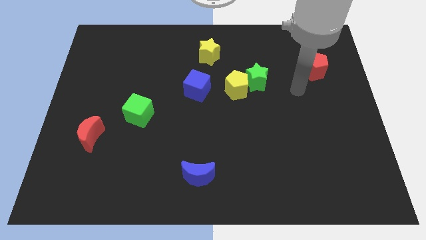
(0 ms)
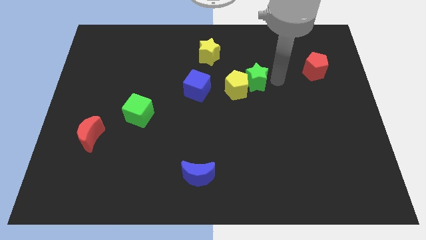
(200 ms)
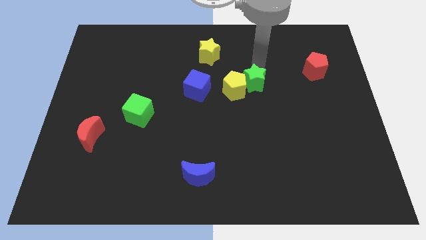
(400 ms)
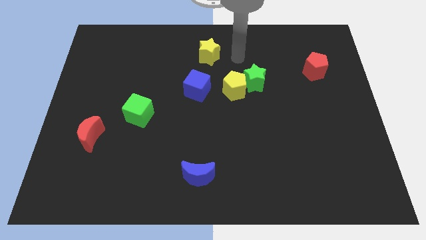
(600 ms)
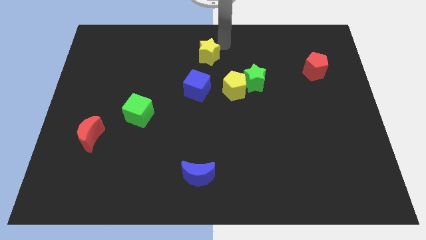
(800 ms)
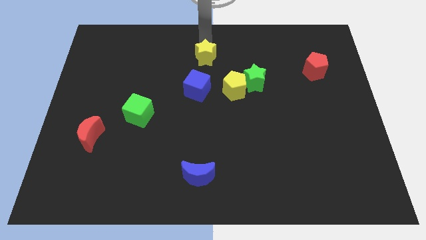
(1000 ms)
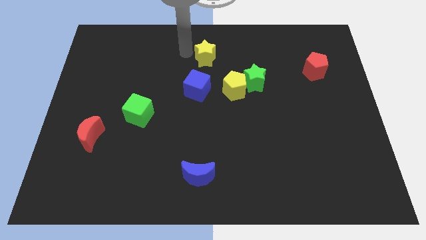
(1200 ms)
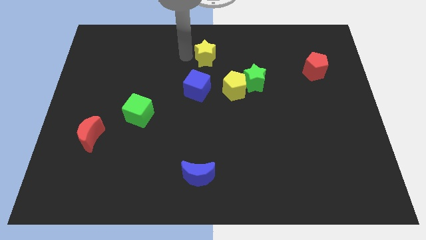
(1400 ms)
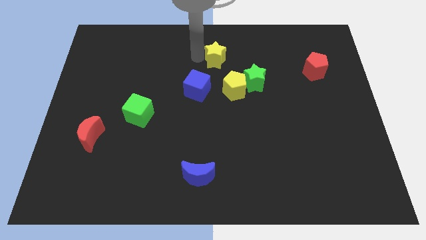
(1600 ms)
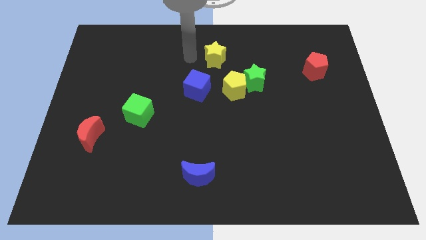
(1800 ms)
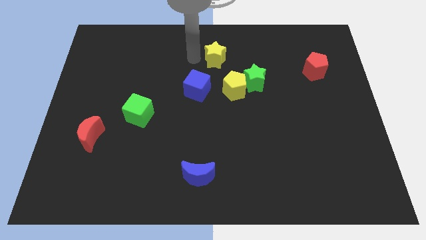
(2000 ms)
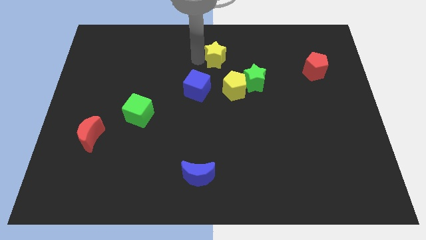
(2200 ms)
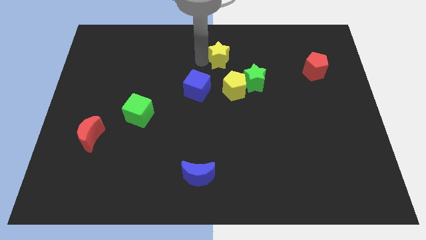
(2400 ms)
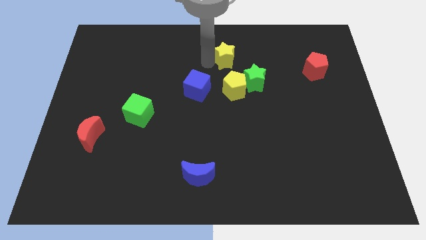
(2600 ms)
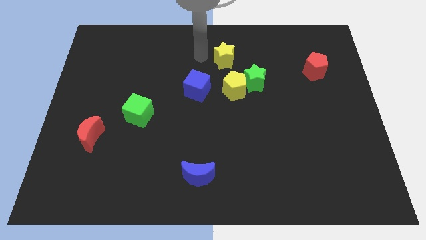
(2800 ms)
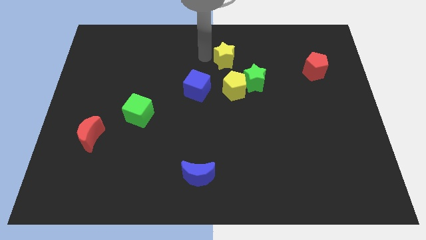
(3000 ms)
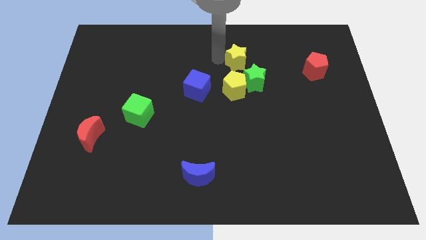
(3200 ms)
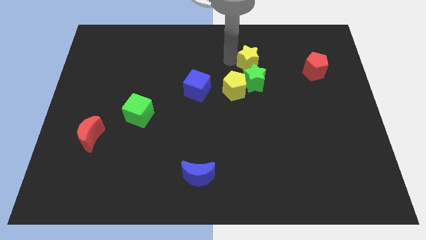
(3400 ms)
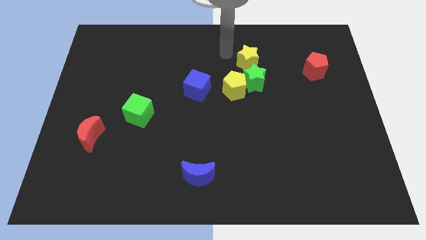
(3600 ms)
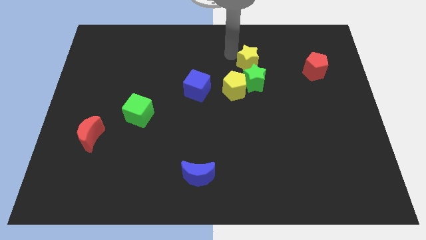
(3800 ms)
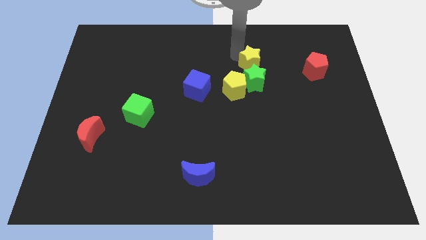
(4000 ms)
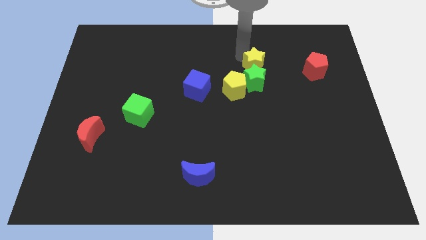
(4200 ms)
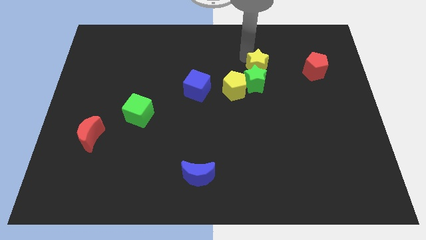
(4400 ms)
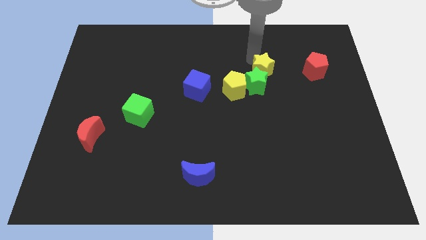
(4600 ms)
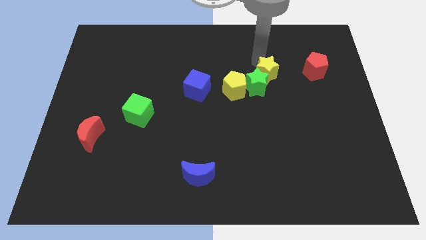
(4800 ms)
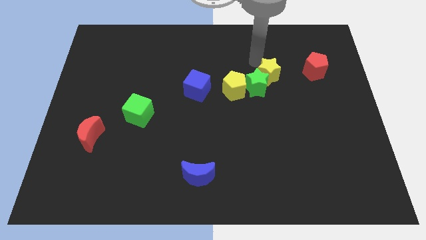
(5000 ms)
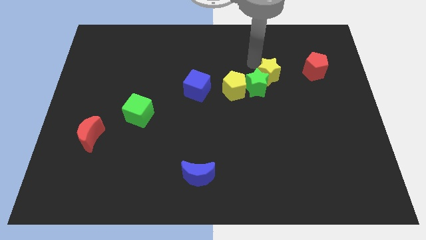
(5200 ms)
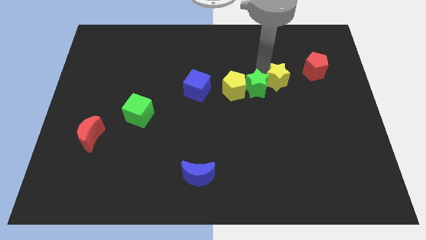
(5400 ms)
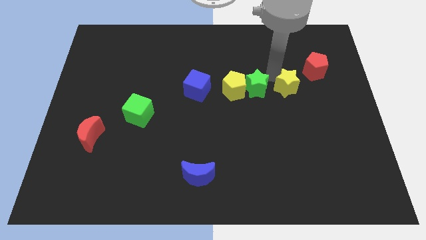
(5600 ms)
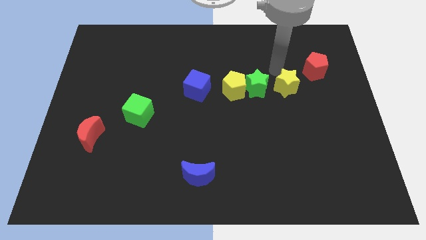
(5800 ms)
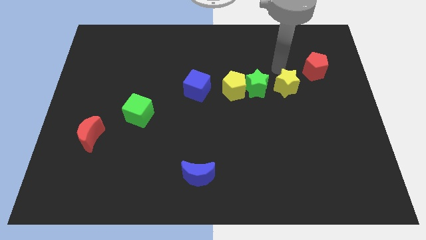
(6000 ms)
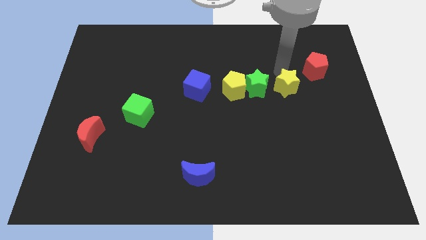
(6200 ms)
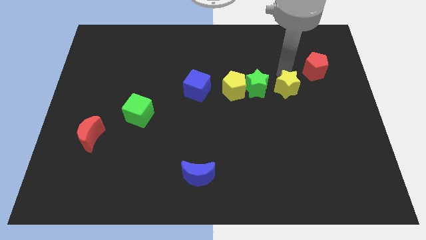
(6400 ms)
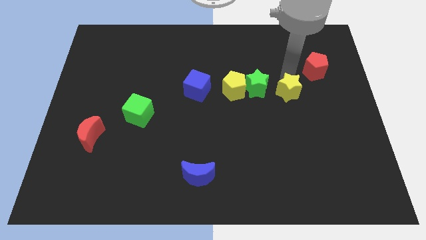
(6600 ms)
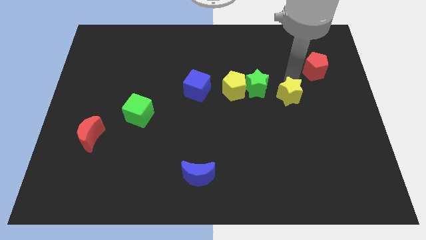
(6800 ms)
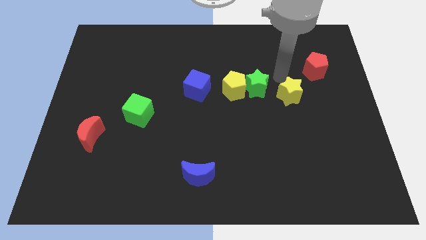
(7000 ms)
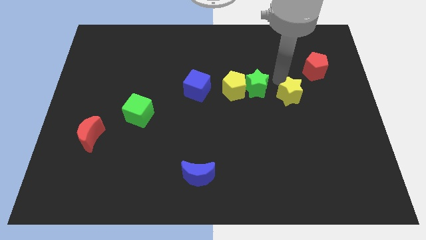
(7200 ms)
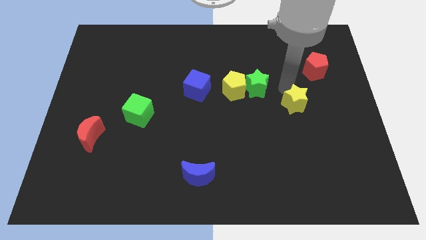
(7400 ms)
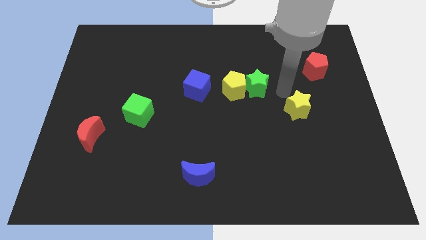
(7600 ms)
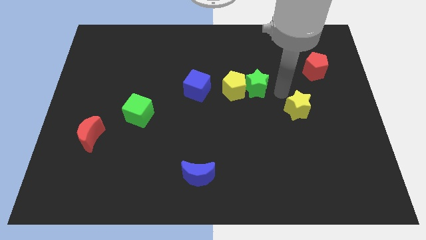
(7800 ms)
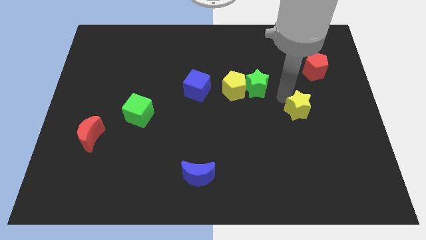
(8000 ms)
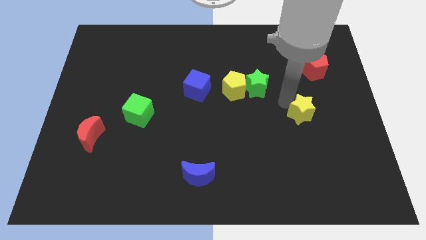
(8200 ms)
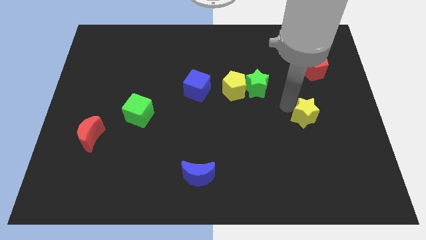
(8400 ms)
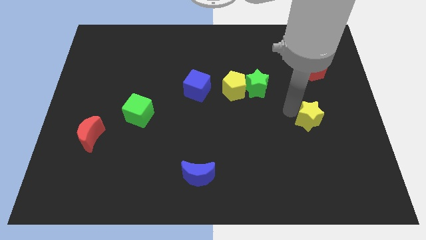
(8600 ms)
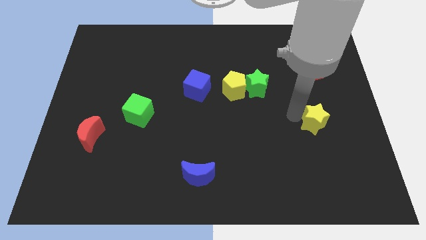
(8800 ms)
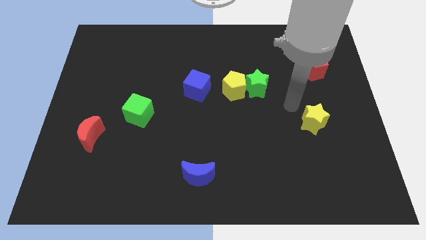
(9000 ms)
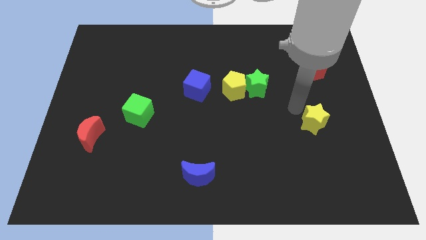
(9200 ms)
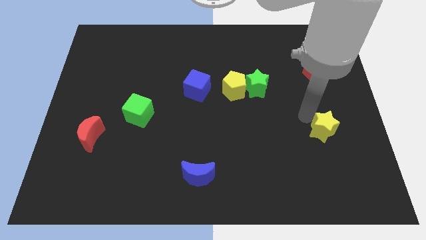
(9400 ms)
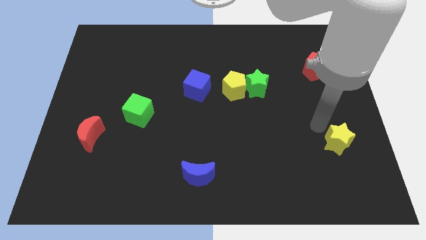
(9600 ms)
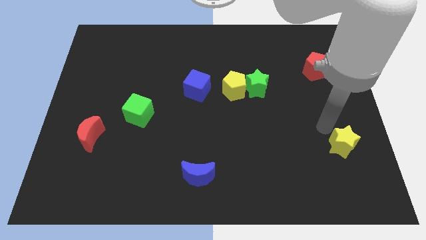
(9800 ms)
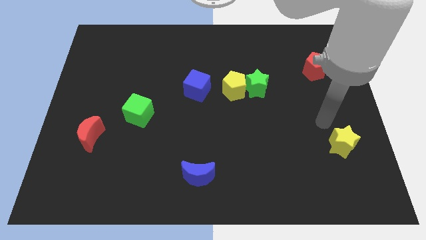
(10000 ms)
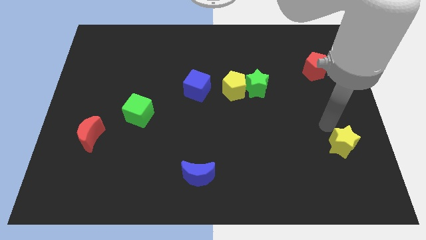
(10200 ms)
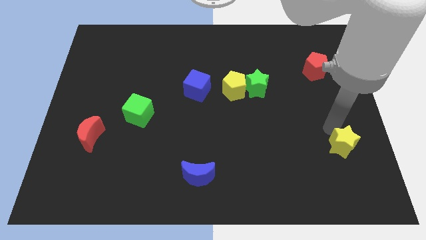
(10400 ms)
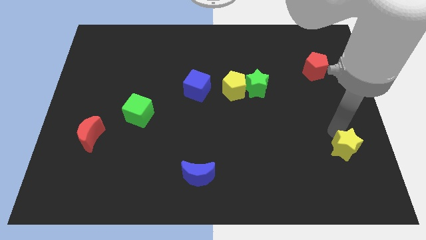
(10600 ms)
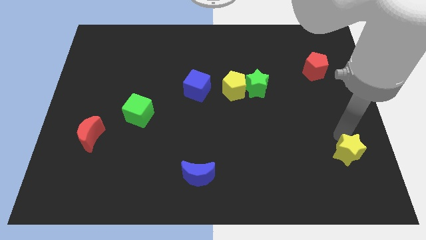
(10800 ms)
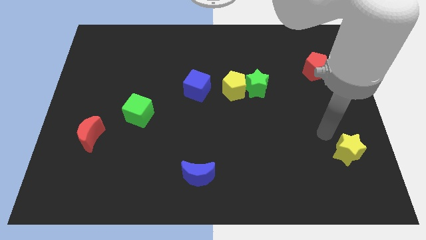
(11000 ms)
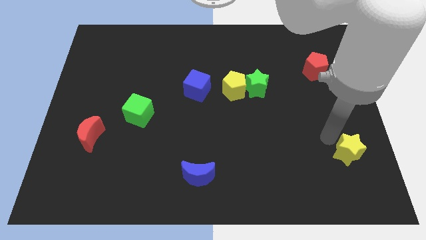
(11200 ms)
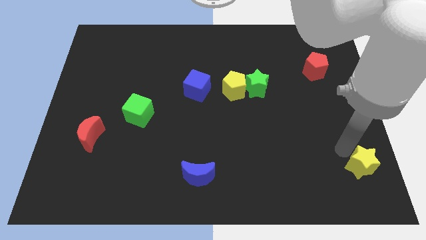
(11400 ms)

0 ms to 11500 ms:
move the yellow star to the bottom right
